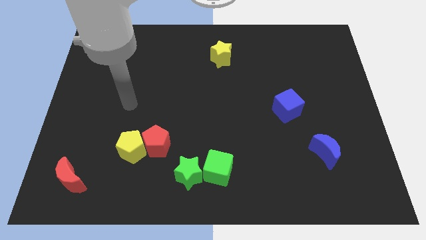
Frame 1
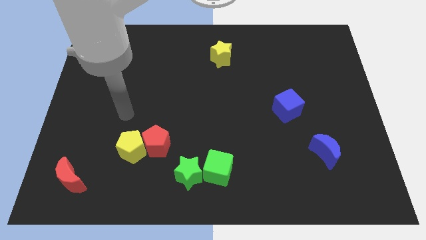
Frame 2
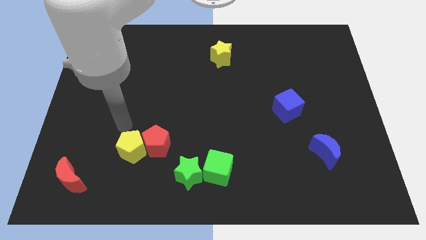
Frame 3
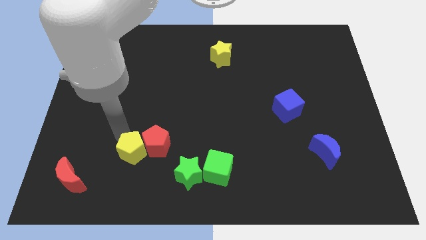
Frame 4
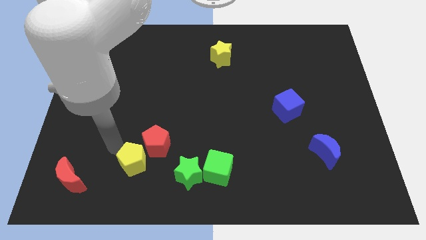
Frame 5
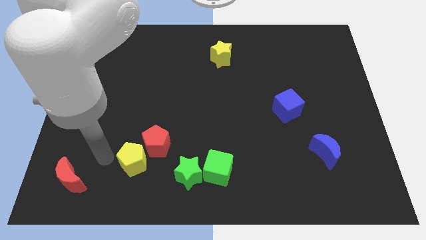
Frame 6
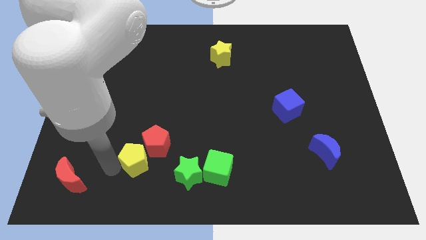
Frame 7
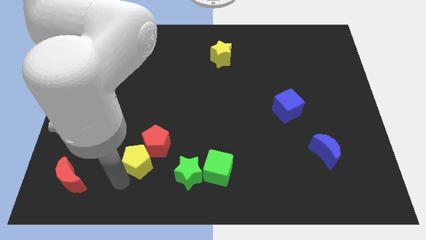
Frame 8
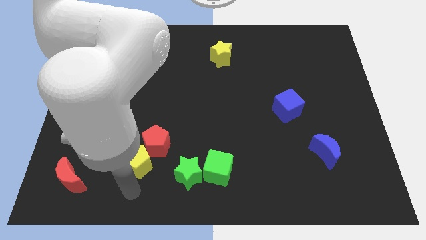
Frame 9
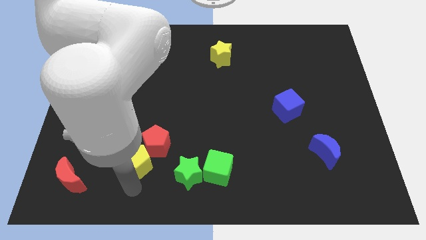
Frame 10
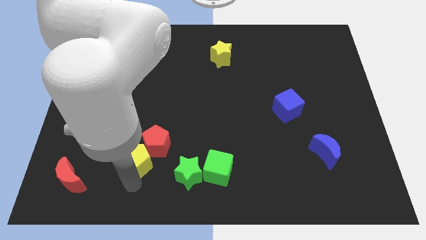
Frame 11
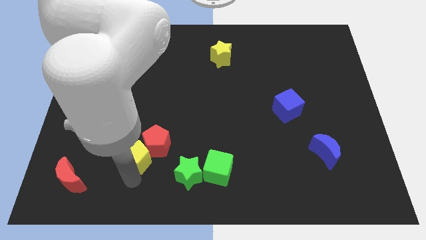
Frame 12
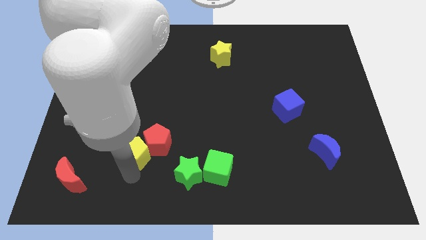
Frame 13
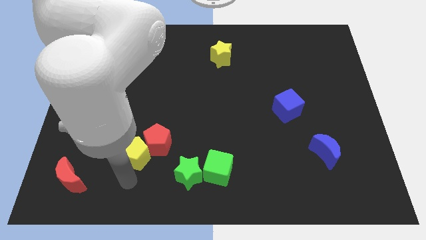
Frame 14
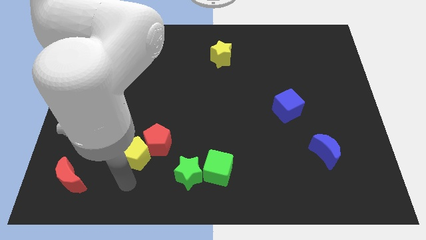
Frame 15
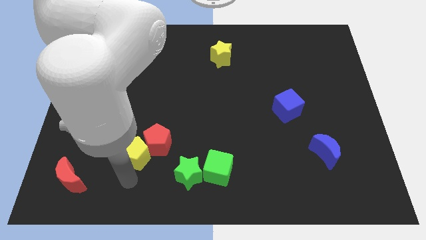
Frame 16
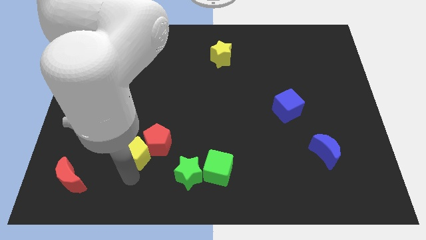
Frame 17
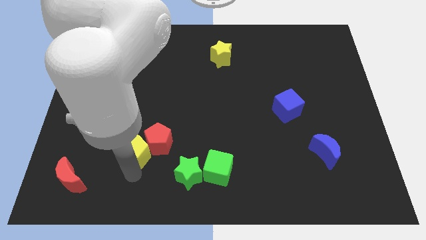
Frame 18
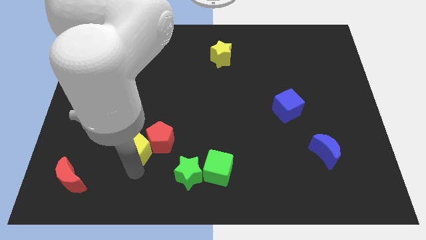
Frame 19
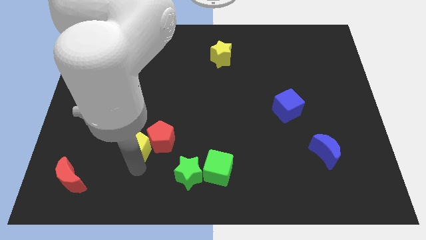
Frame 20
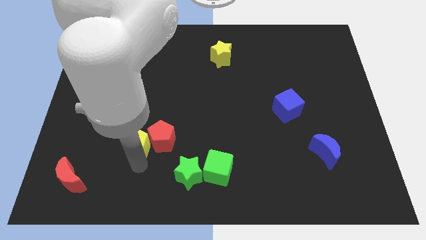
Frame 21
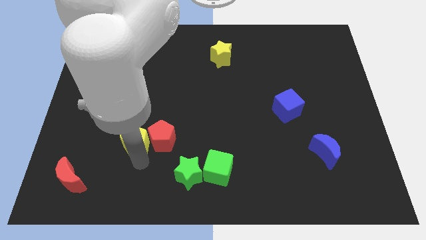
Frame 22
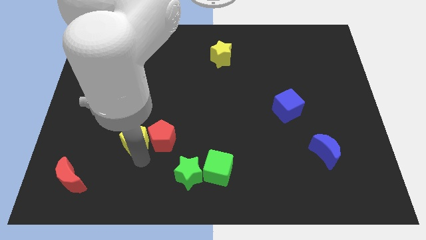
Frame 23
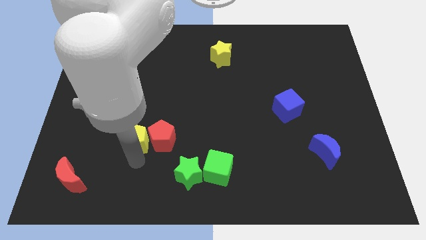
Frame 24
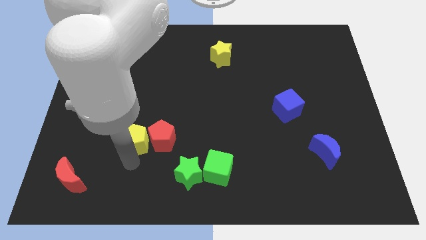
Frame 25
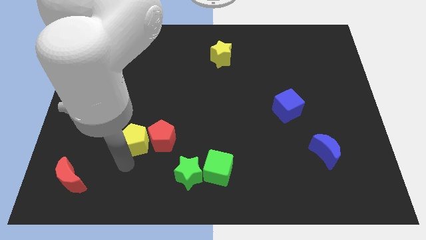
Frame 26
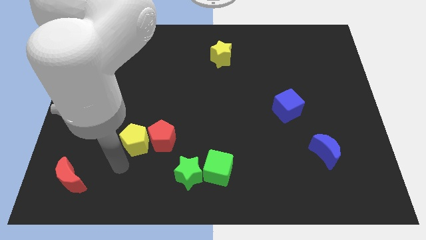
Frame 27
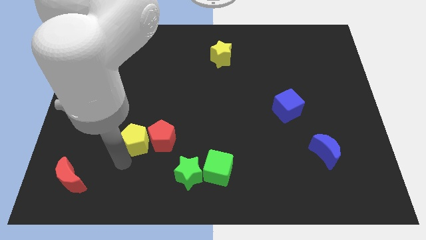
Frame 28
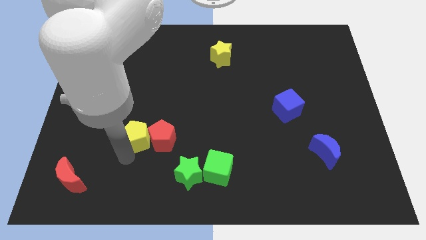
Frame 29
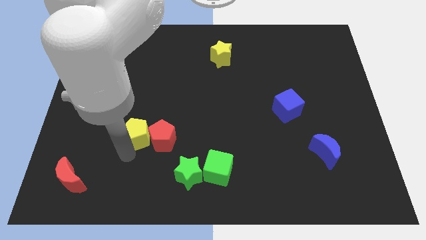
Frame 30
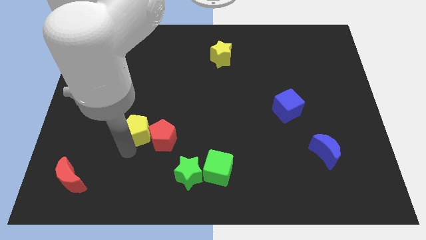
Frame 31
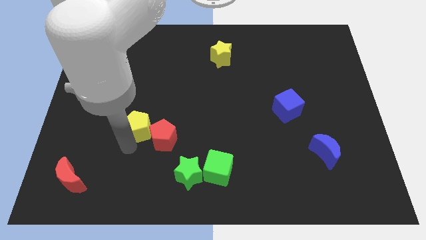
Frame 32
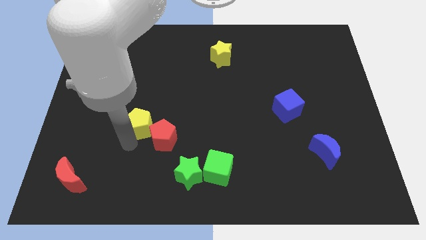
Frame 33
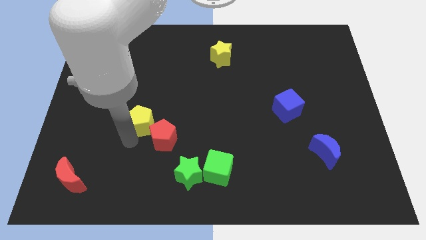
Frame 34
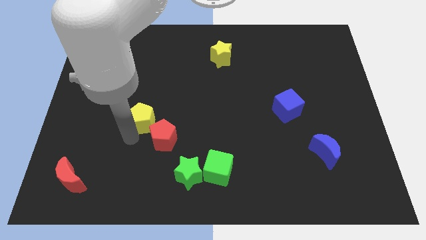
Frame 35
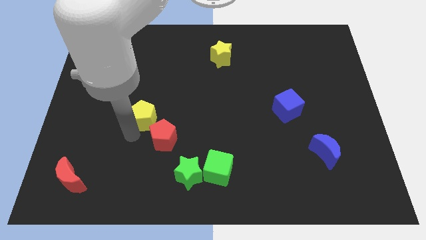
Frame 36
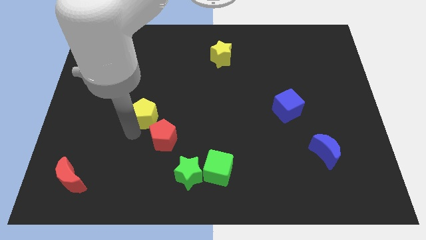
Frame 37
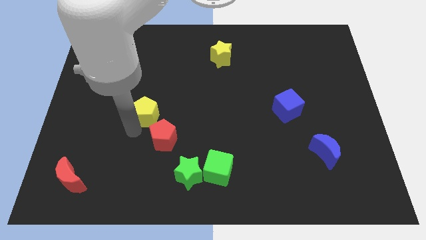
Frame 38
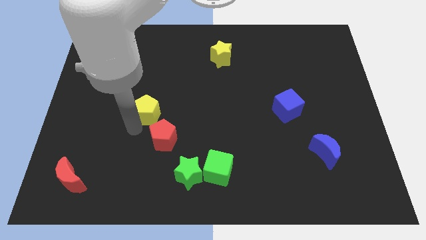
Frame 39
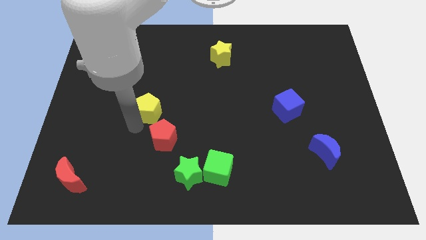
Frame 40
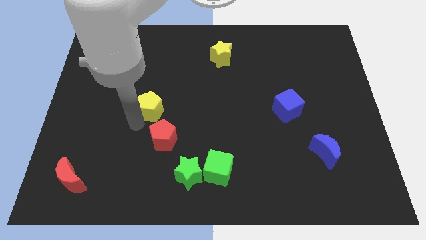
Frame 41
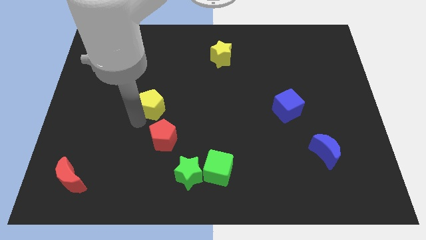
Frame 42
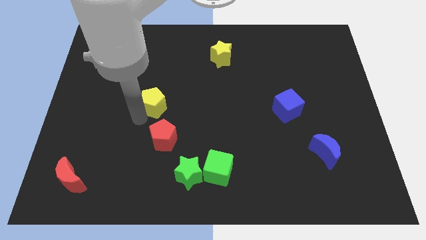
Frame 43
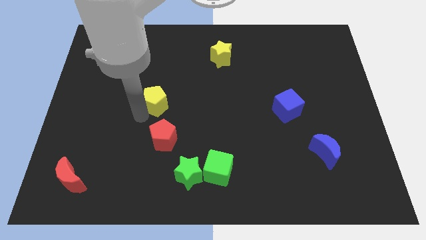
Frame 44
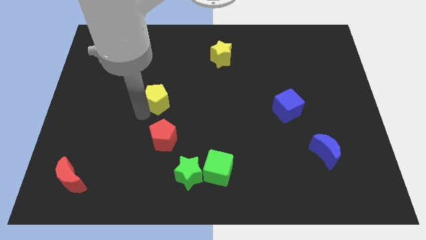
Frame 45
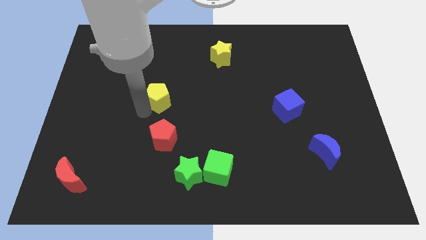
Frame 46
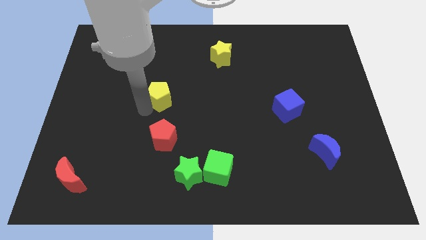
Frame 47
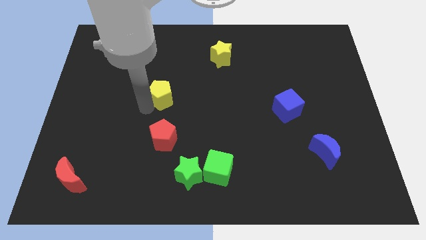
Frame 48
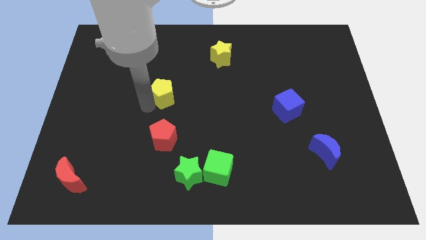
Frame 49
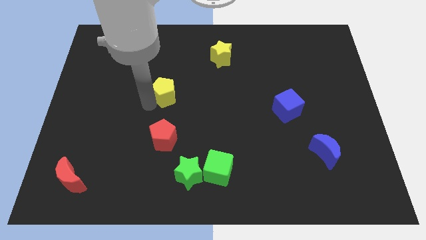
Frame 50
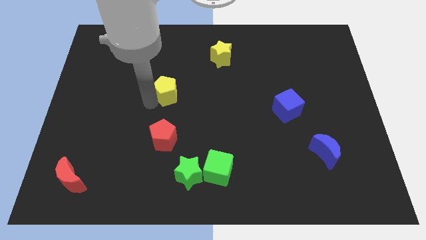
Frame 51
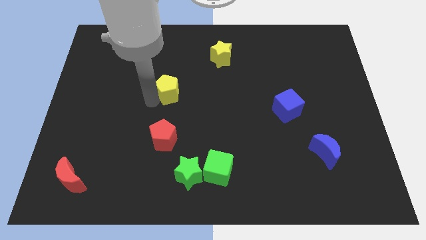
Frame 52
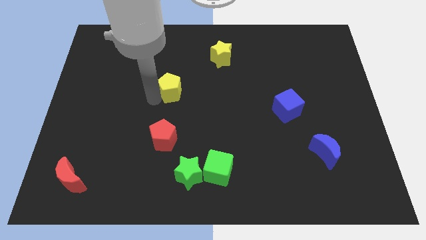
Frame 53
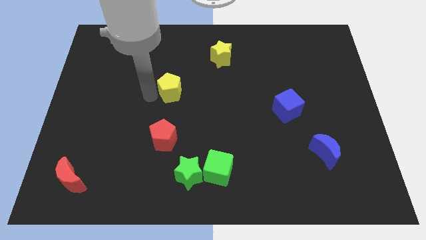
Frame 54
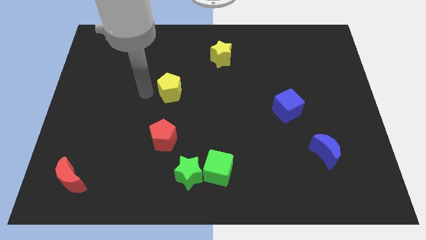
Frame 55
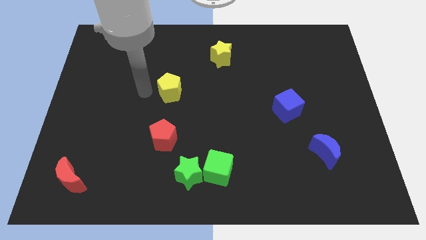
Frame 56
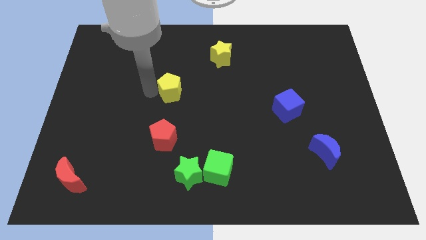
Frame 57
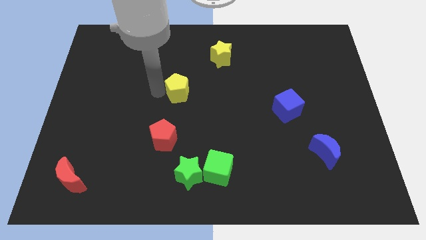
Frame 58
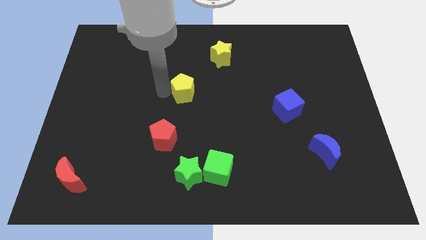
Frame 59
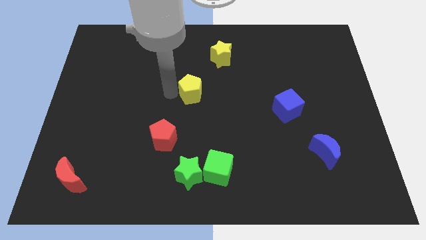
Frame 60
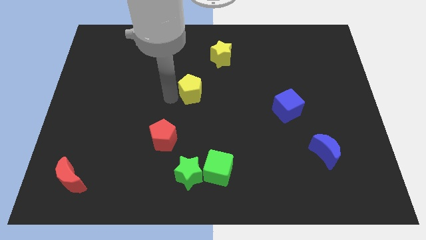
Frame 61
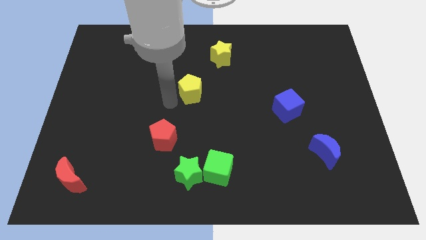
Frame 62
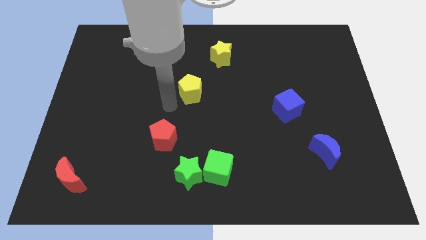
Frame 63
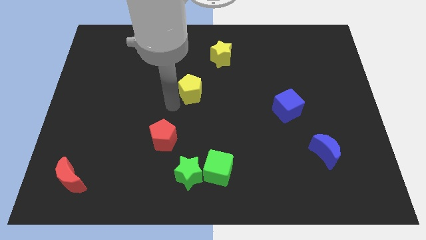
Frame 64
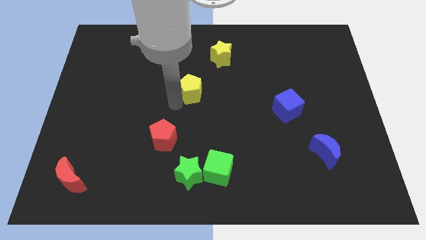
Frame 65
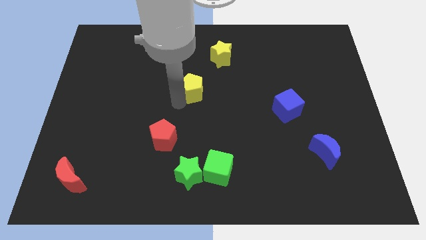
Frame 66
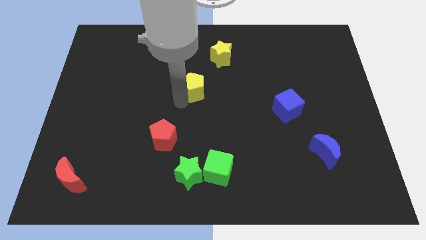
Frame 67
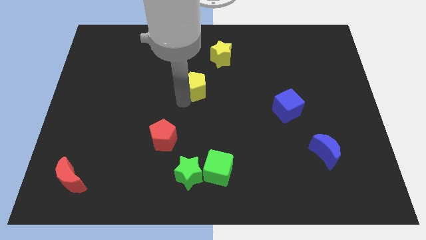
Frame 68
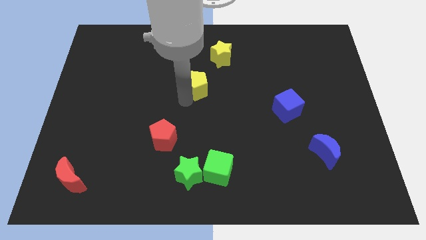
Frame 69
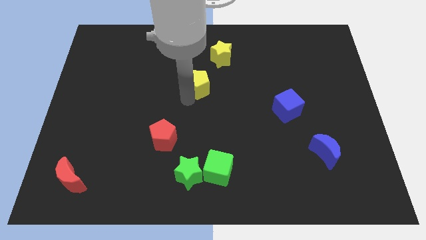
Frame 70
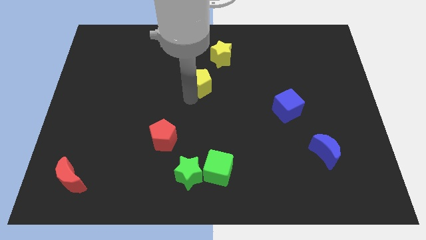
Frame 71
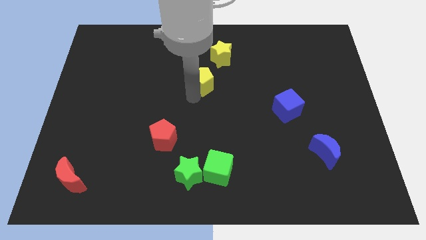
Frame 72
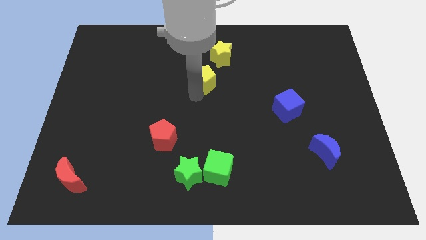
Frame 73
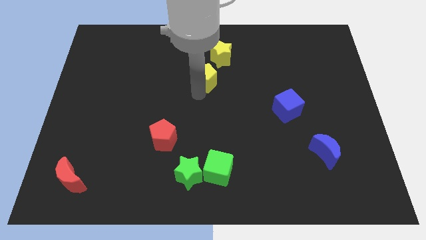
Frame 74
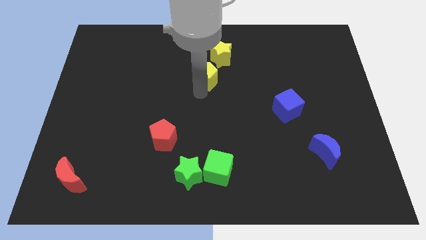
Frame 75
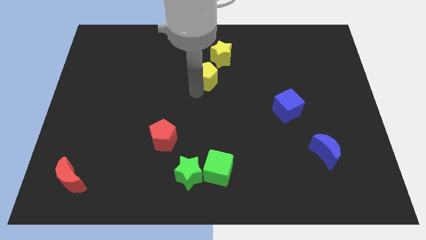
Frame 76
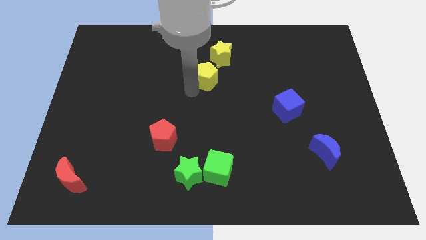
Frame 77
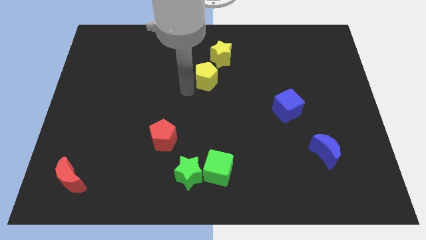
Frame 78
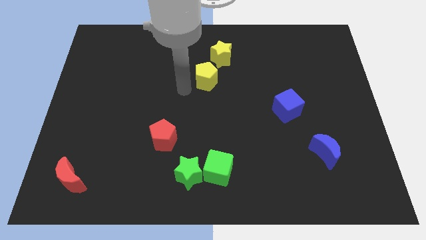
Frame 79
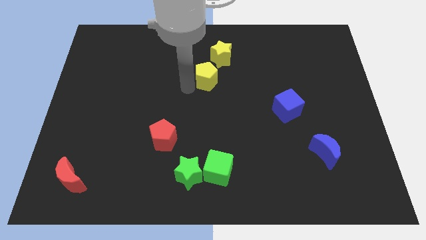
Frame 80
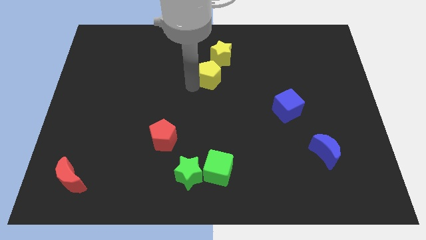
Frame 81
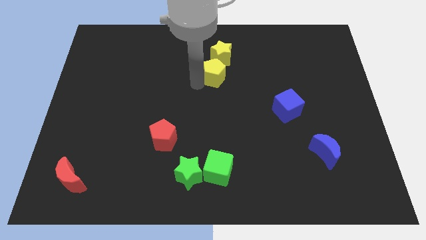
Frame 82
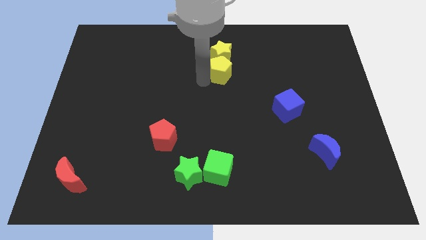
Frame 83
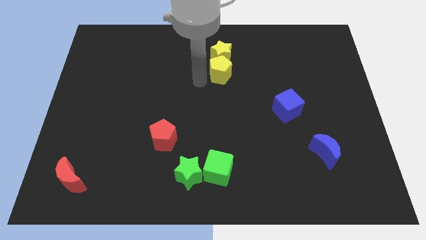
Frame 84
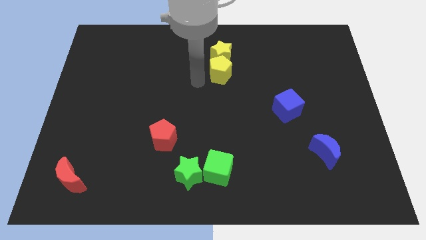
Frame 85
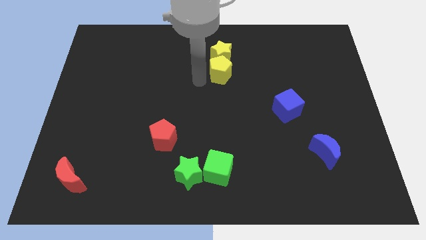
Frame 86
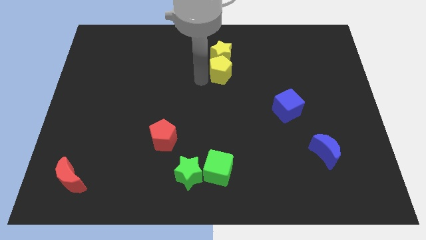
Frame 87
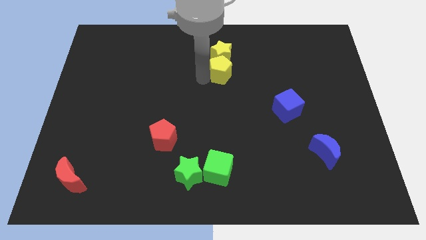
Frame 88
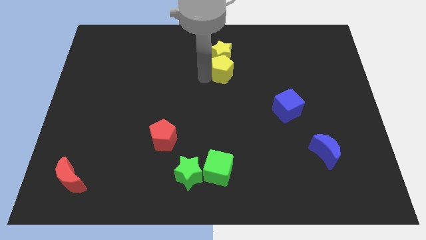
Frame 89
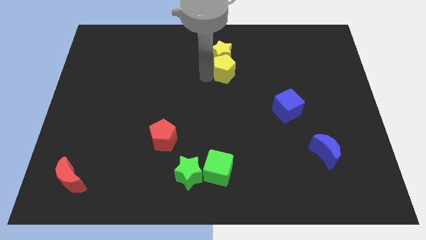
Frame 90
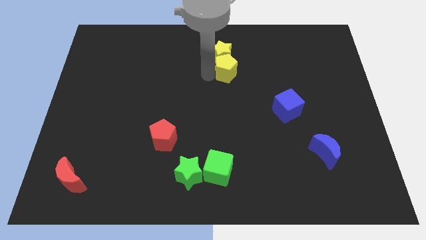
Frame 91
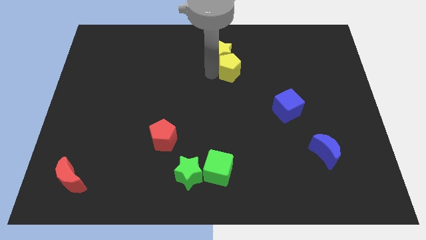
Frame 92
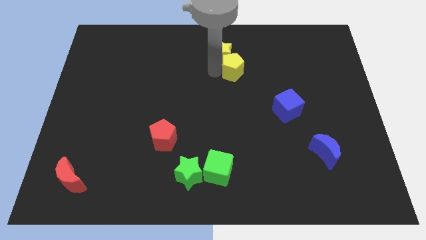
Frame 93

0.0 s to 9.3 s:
move the yellow pentagon just right of the yellow star
